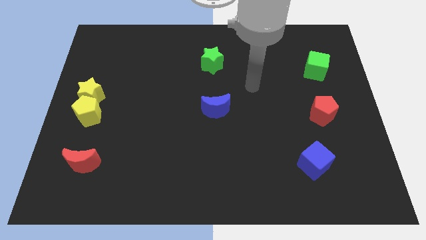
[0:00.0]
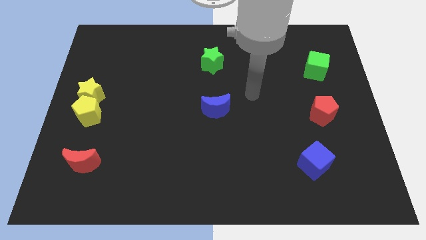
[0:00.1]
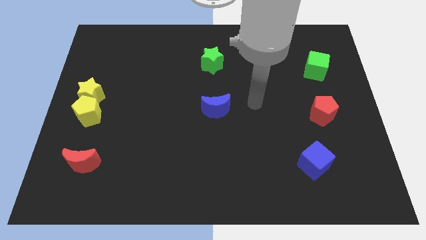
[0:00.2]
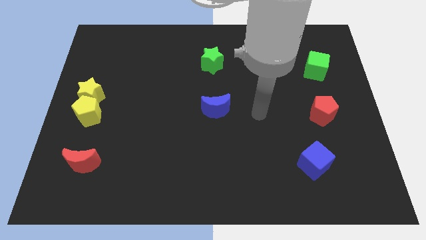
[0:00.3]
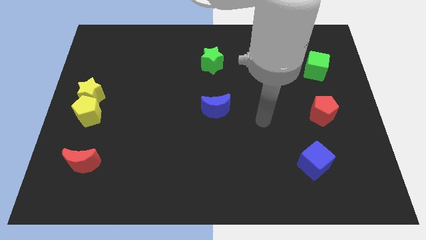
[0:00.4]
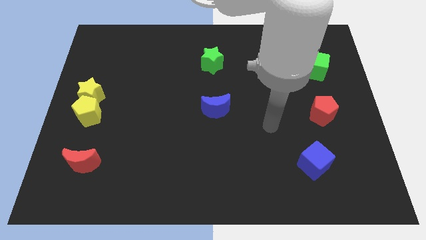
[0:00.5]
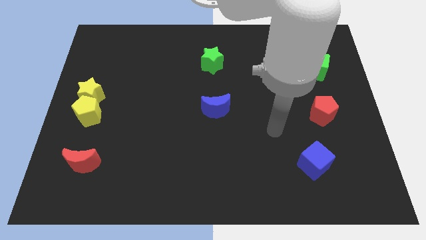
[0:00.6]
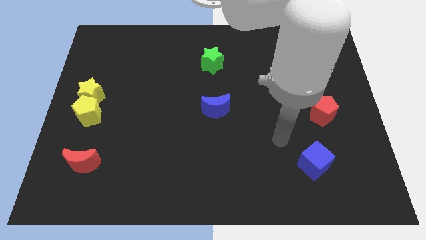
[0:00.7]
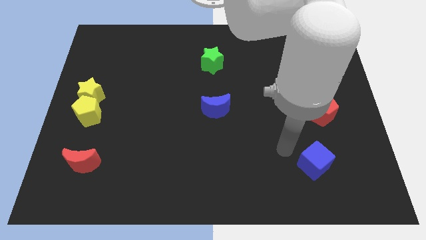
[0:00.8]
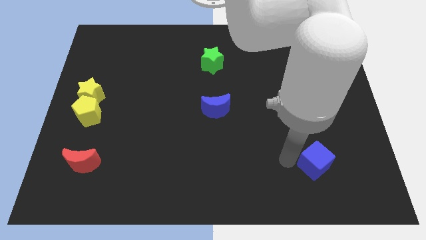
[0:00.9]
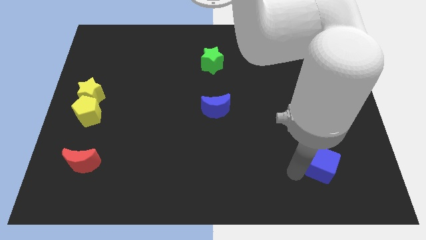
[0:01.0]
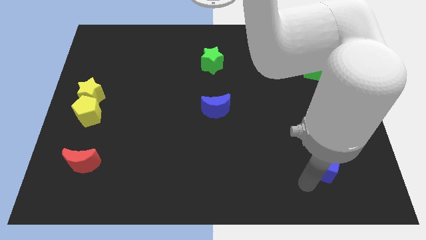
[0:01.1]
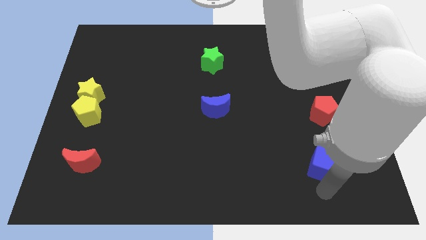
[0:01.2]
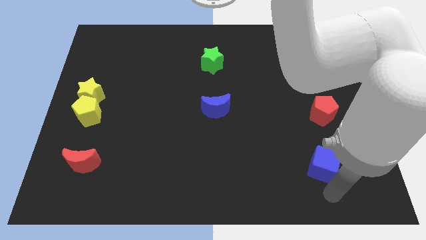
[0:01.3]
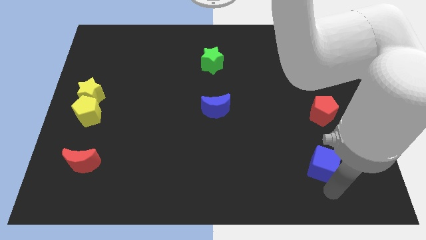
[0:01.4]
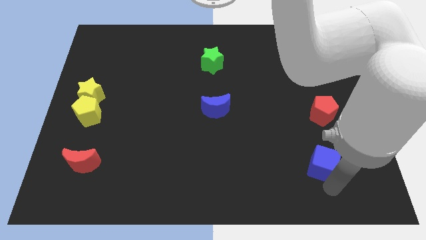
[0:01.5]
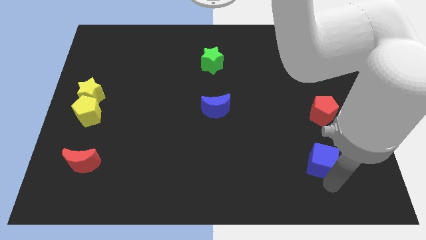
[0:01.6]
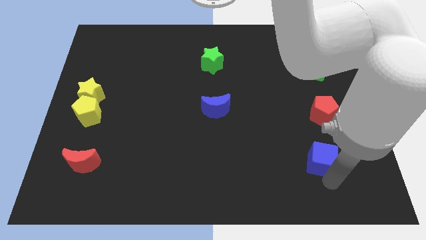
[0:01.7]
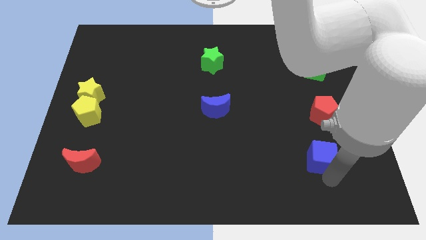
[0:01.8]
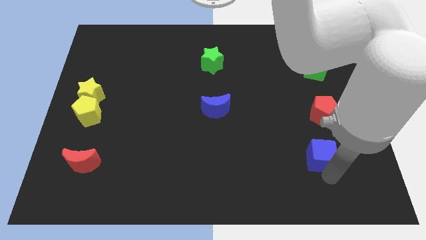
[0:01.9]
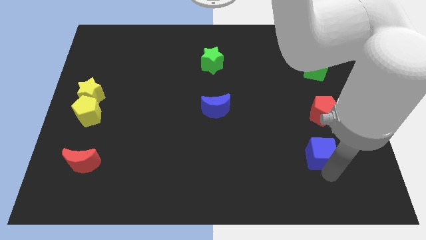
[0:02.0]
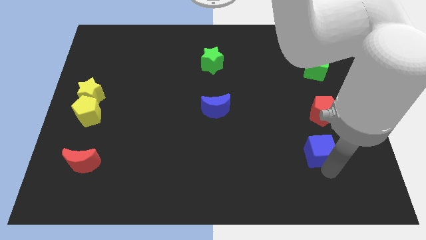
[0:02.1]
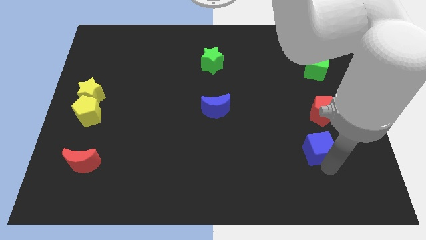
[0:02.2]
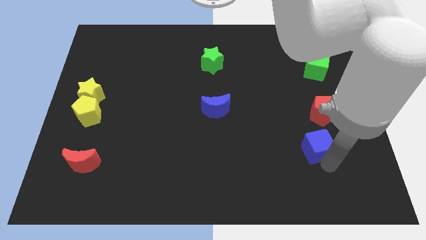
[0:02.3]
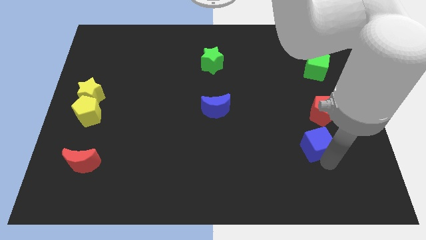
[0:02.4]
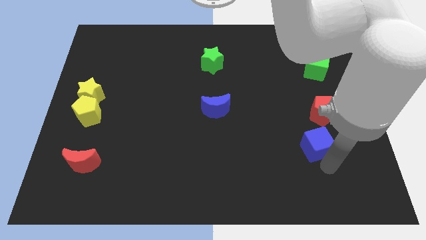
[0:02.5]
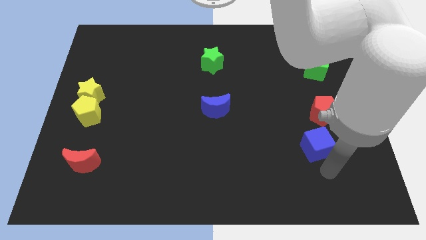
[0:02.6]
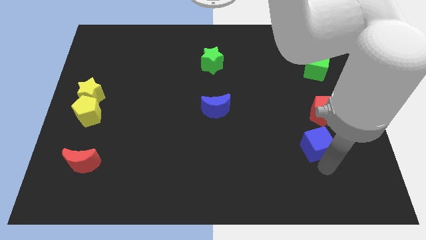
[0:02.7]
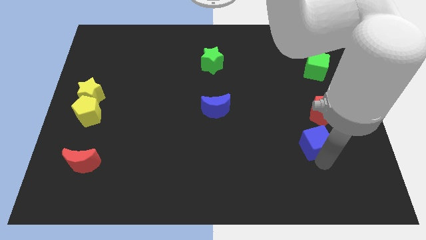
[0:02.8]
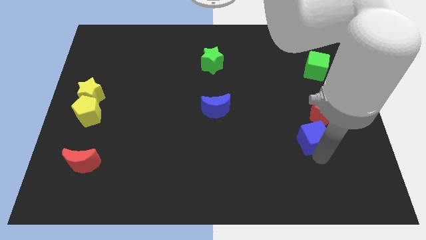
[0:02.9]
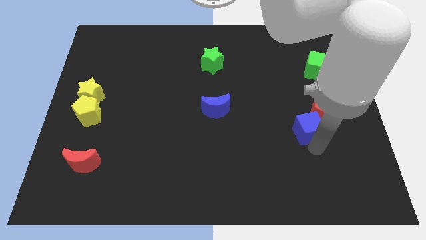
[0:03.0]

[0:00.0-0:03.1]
move the blue cube up a little bit

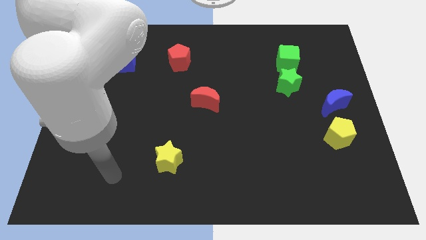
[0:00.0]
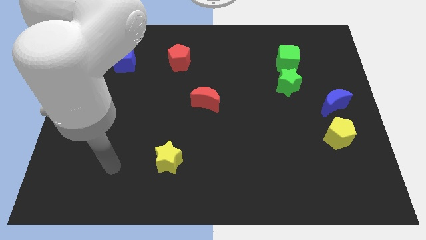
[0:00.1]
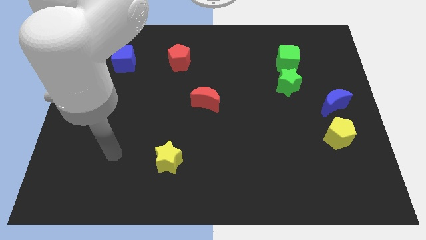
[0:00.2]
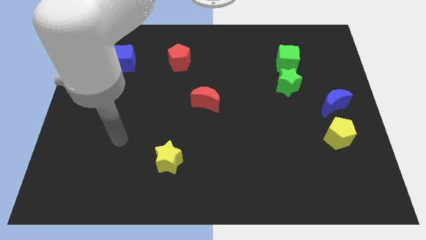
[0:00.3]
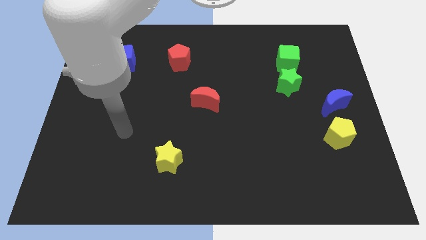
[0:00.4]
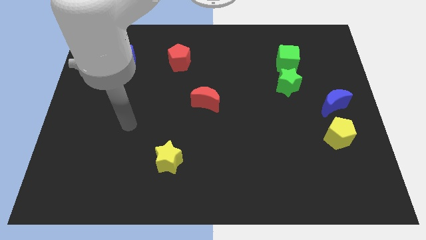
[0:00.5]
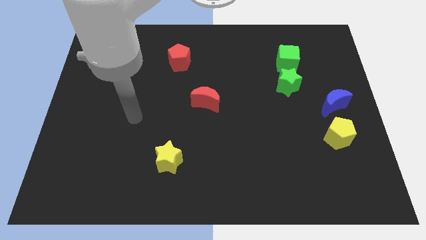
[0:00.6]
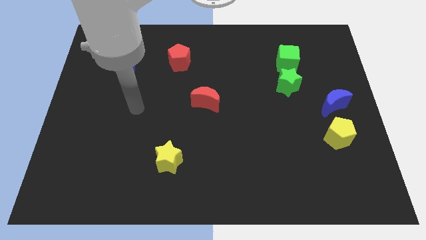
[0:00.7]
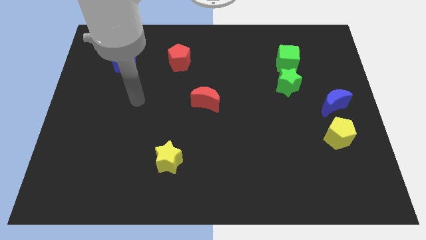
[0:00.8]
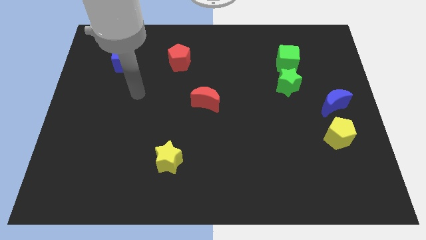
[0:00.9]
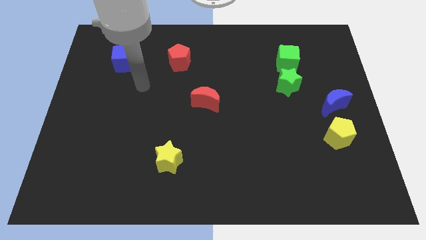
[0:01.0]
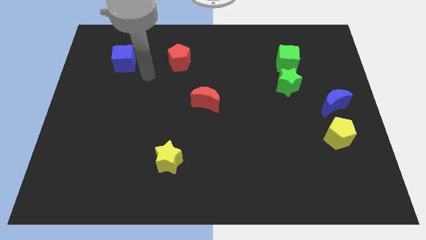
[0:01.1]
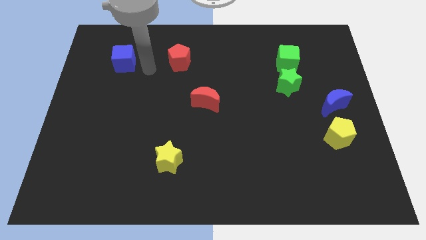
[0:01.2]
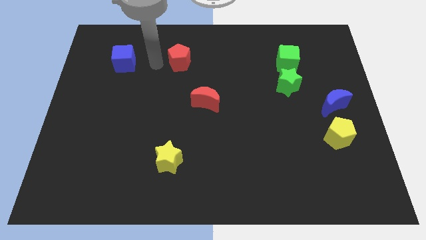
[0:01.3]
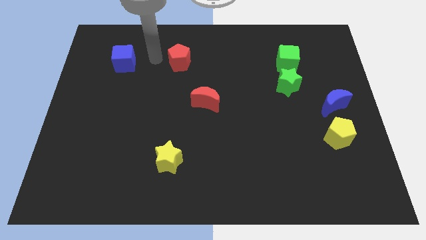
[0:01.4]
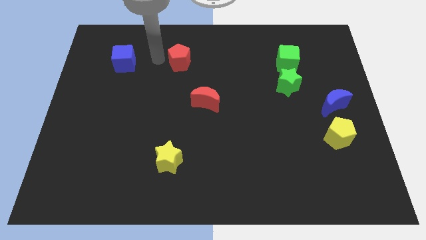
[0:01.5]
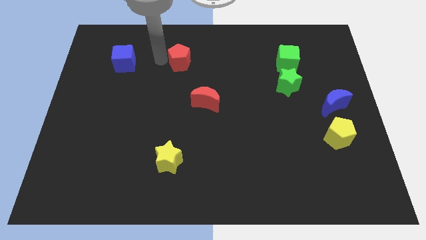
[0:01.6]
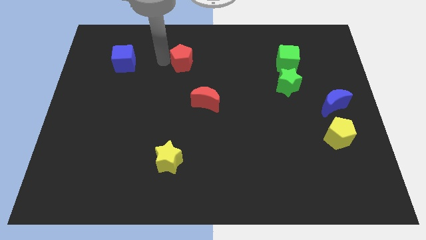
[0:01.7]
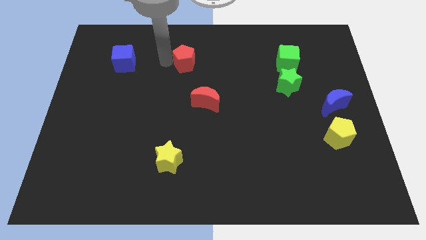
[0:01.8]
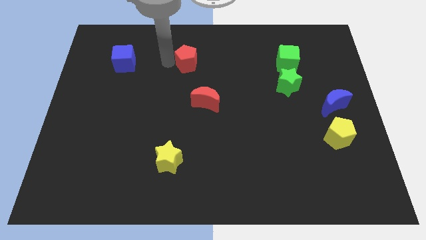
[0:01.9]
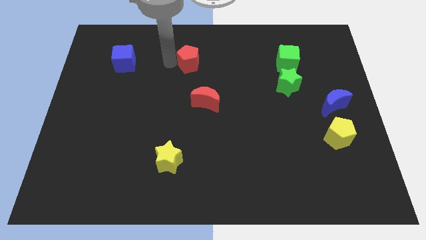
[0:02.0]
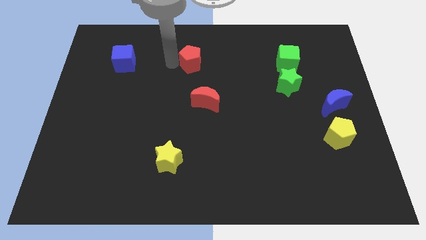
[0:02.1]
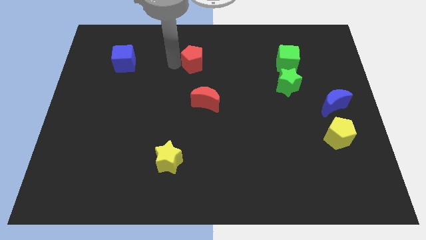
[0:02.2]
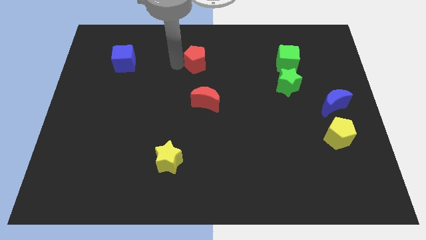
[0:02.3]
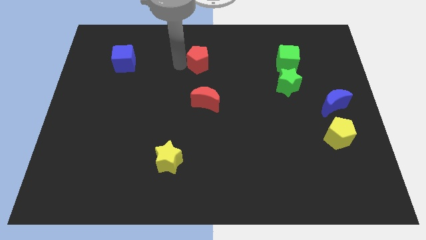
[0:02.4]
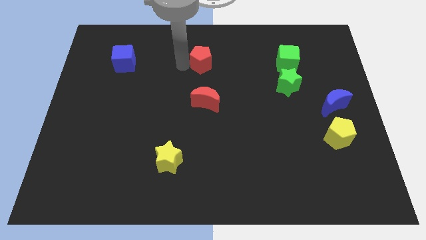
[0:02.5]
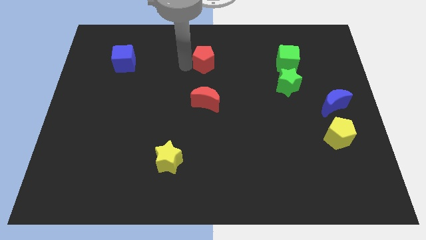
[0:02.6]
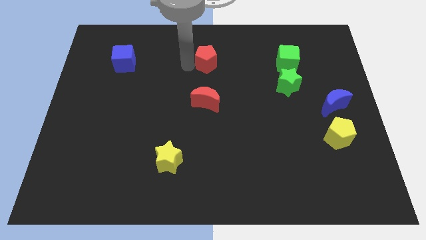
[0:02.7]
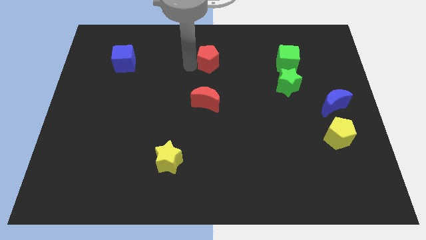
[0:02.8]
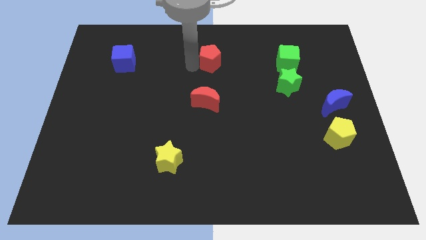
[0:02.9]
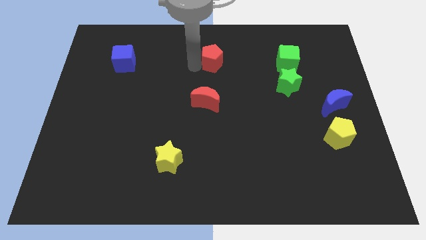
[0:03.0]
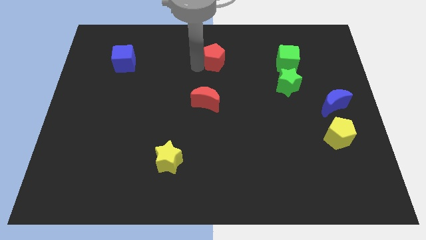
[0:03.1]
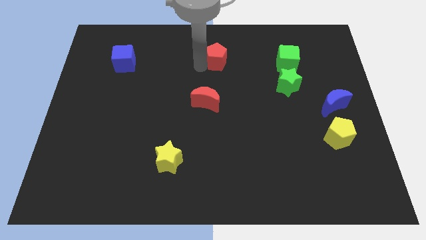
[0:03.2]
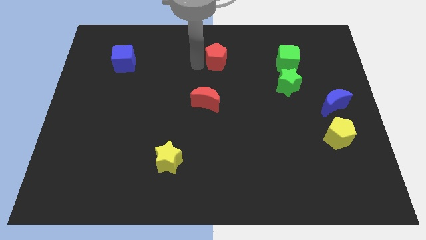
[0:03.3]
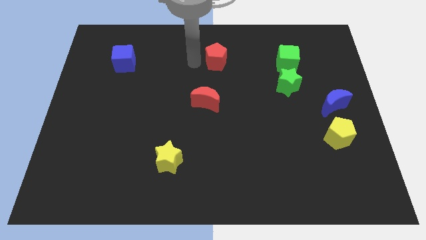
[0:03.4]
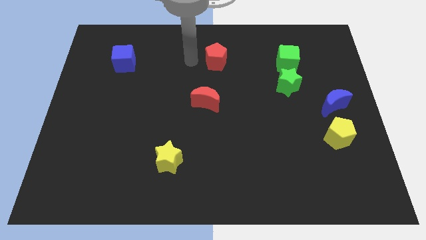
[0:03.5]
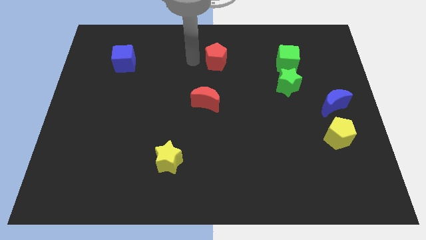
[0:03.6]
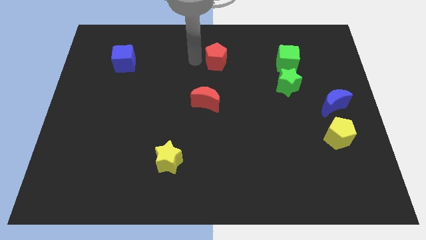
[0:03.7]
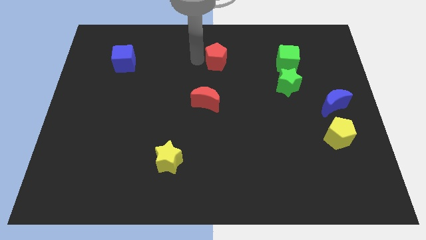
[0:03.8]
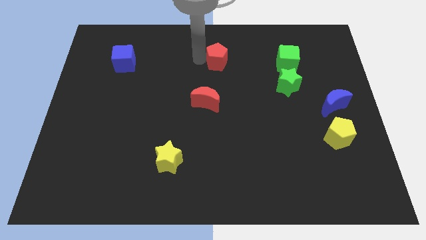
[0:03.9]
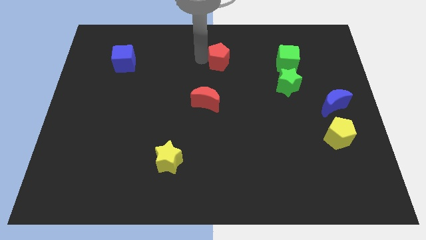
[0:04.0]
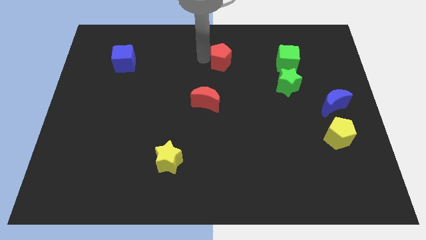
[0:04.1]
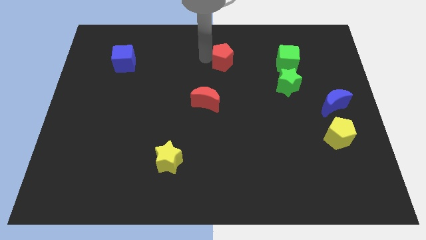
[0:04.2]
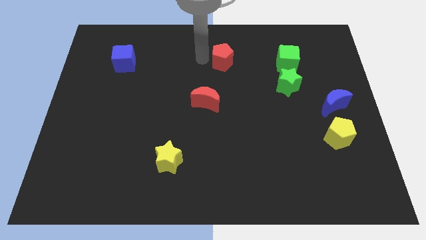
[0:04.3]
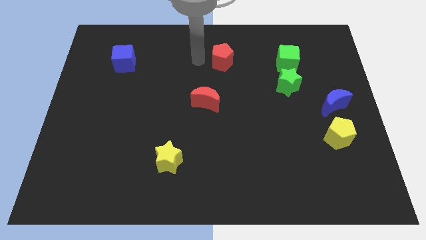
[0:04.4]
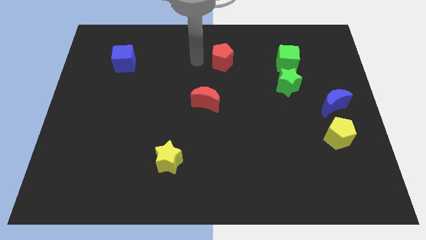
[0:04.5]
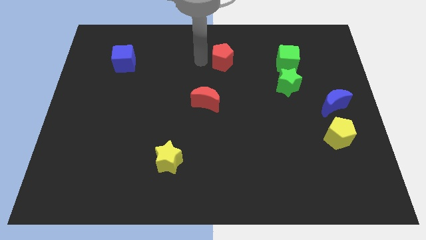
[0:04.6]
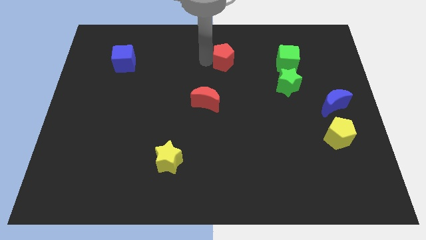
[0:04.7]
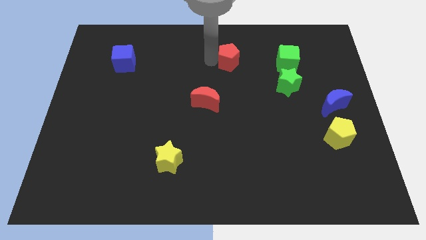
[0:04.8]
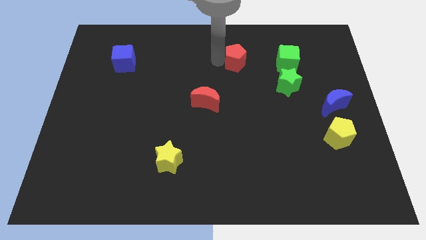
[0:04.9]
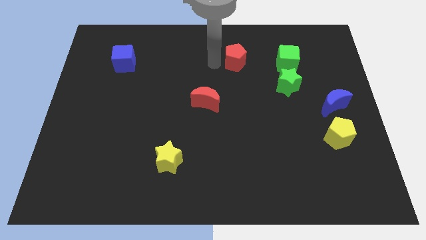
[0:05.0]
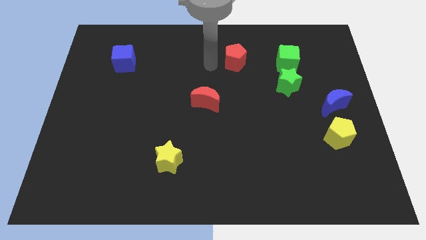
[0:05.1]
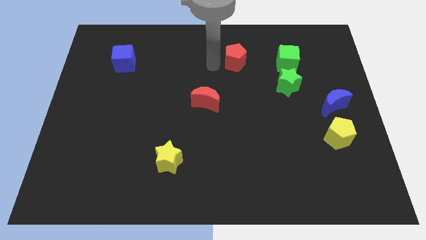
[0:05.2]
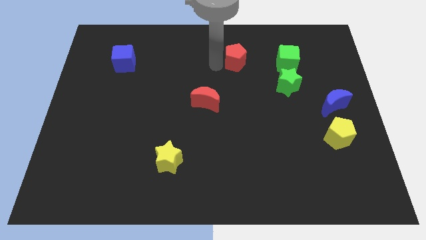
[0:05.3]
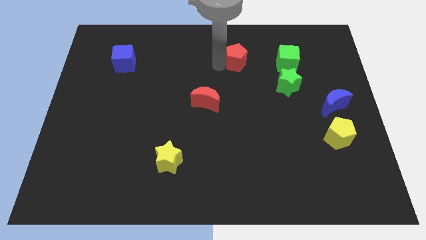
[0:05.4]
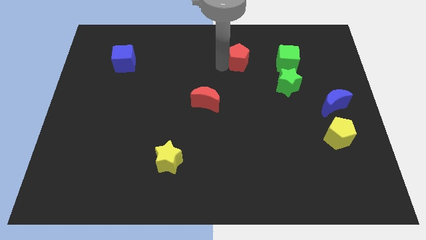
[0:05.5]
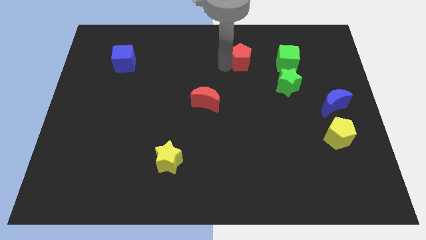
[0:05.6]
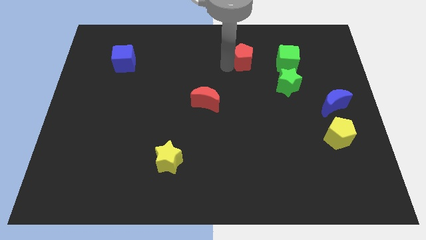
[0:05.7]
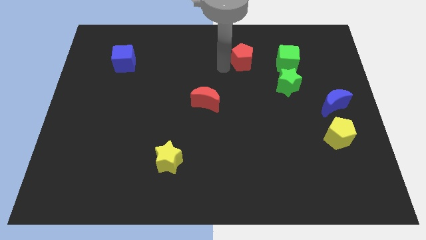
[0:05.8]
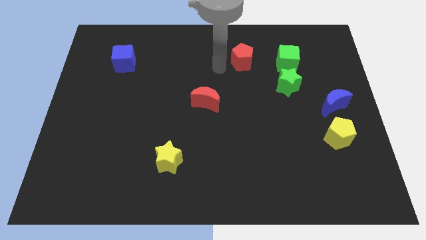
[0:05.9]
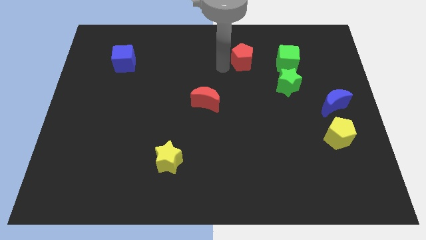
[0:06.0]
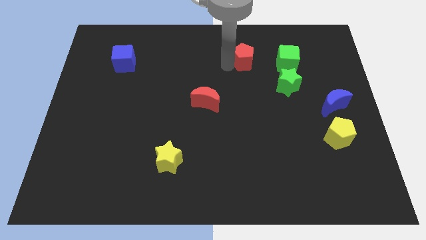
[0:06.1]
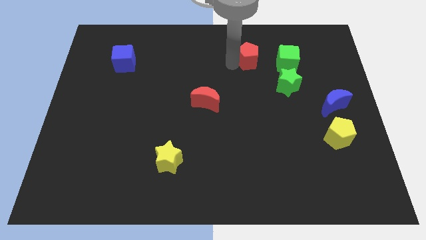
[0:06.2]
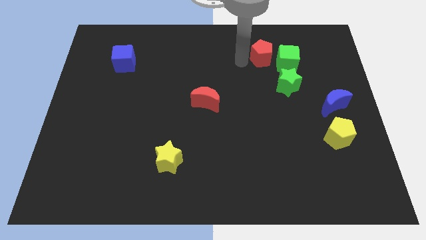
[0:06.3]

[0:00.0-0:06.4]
slide the red pentagon to the right
